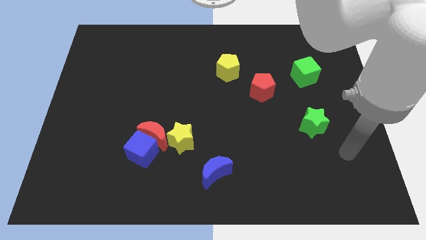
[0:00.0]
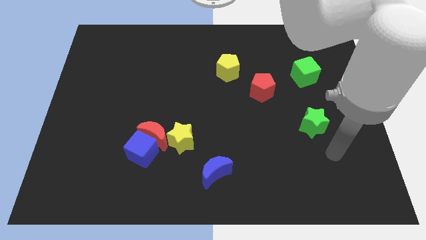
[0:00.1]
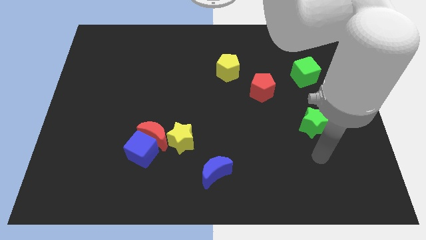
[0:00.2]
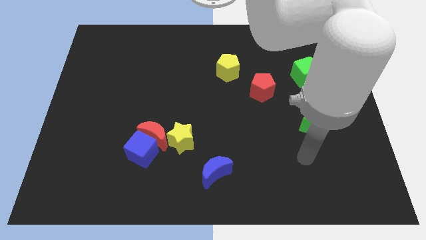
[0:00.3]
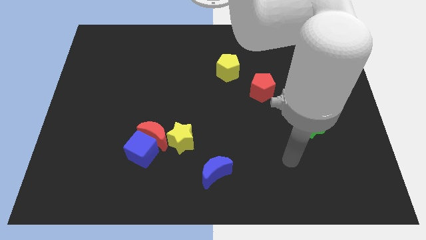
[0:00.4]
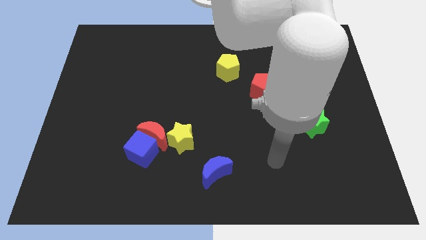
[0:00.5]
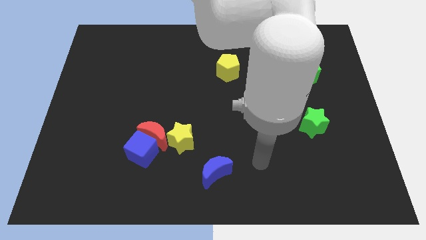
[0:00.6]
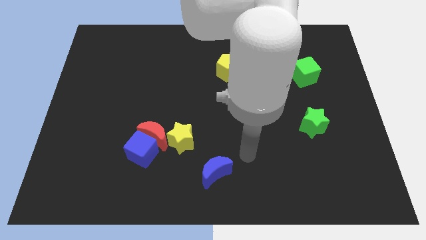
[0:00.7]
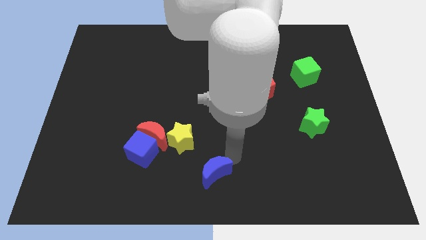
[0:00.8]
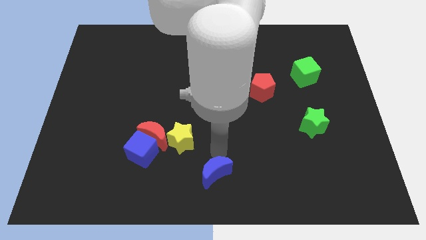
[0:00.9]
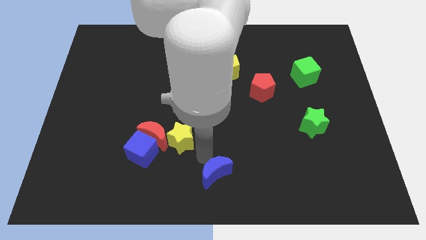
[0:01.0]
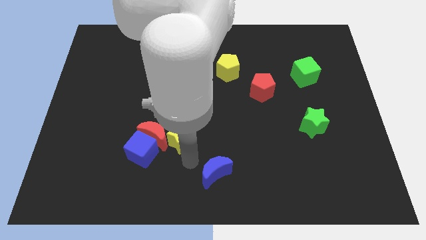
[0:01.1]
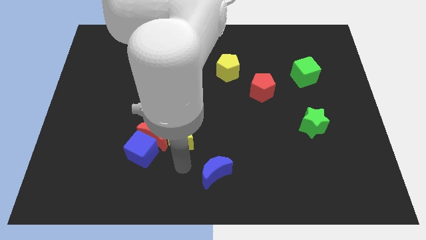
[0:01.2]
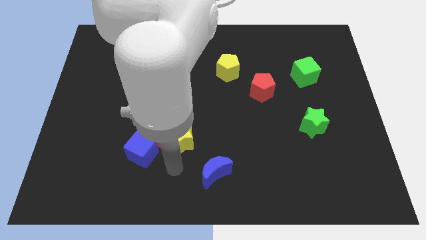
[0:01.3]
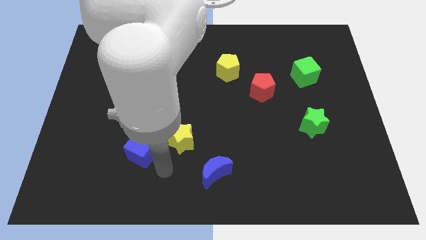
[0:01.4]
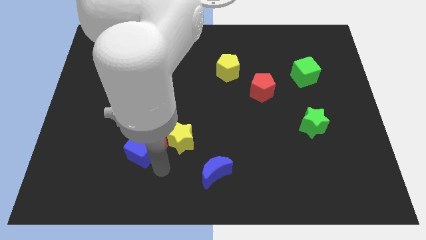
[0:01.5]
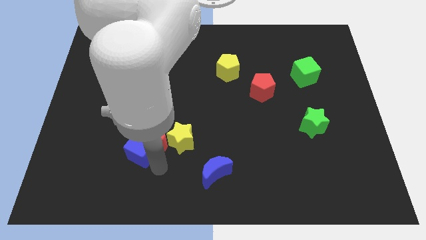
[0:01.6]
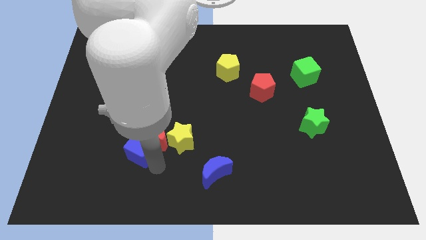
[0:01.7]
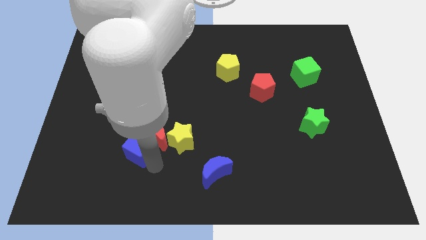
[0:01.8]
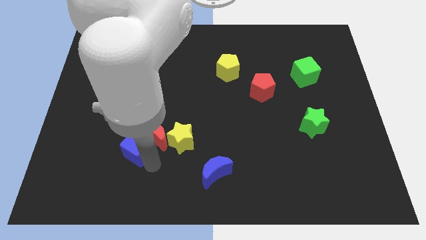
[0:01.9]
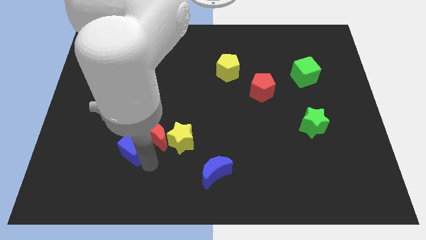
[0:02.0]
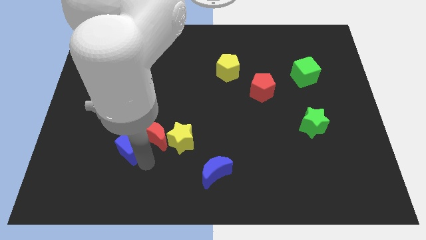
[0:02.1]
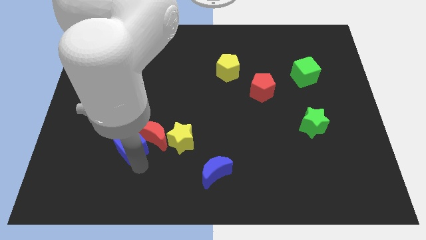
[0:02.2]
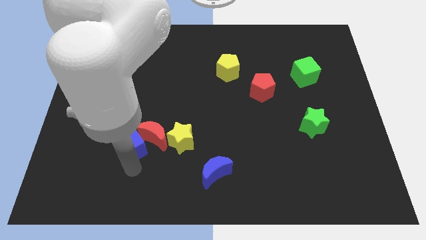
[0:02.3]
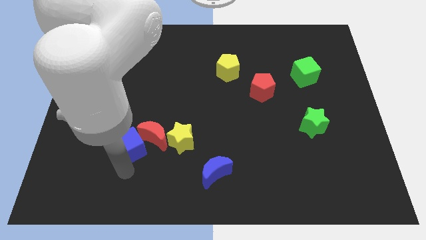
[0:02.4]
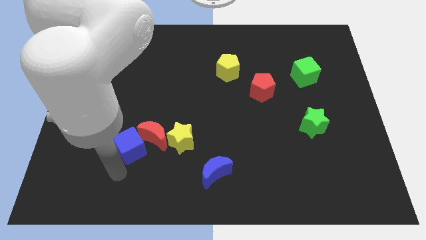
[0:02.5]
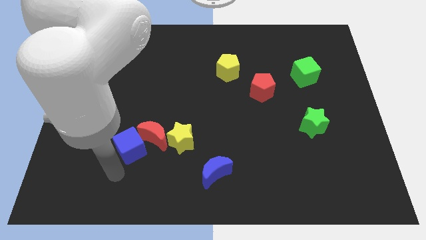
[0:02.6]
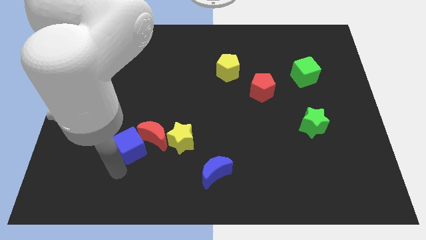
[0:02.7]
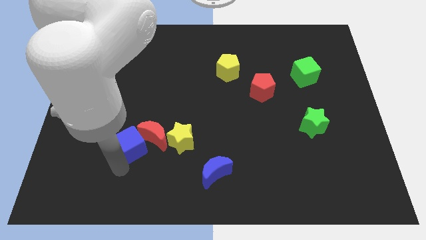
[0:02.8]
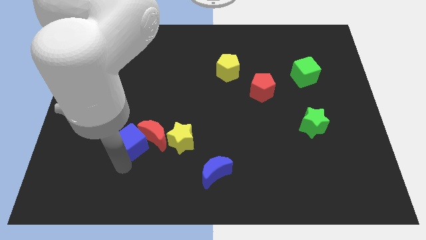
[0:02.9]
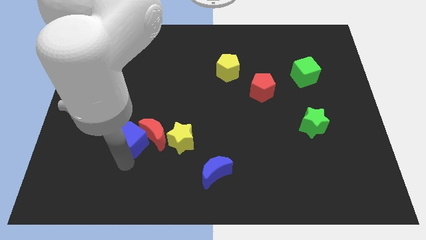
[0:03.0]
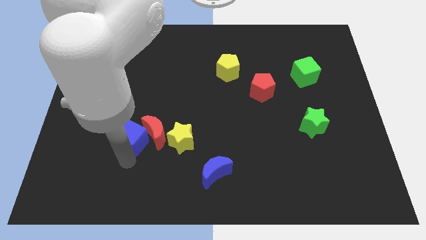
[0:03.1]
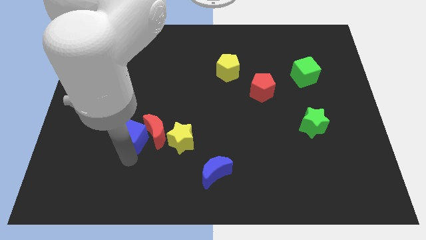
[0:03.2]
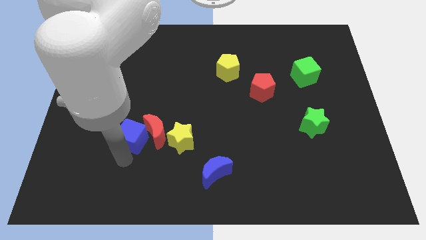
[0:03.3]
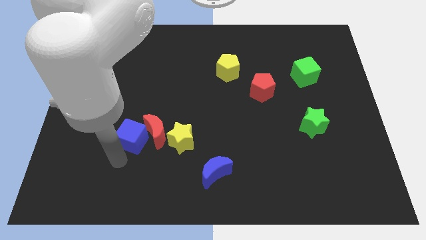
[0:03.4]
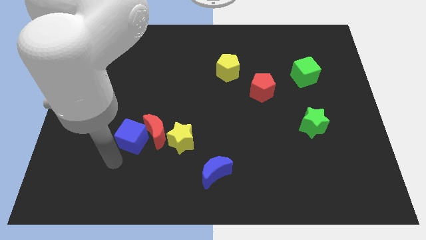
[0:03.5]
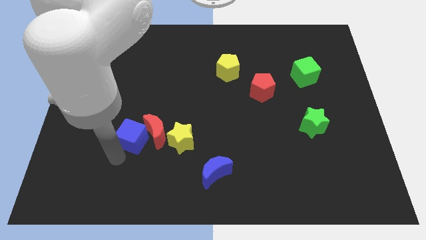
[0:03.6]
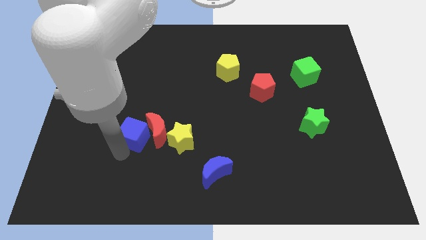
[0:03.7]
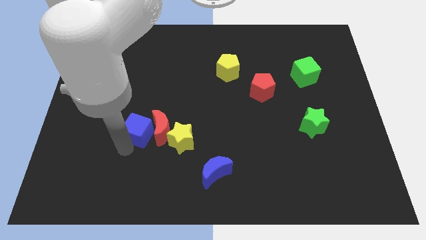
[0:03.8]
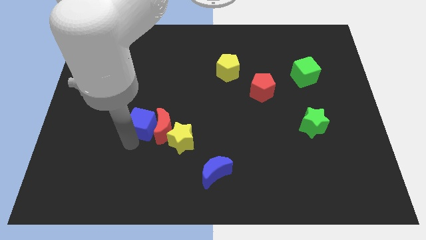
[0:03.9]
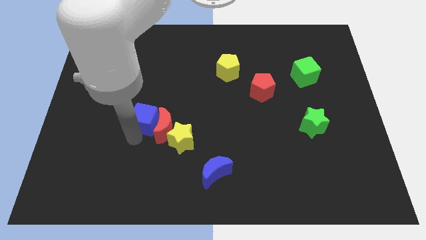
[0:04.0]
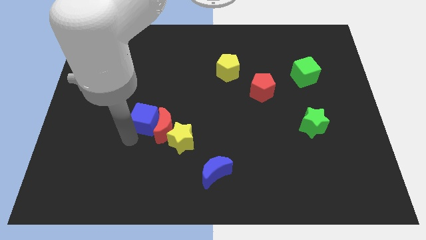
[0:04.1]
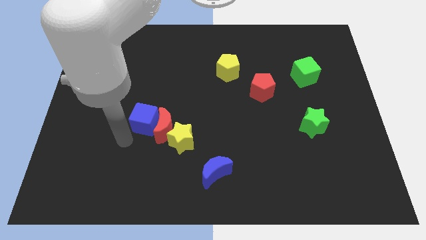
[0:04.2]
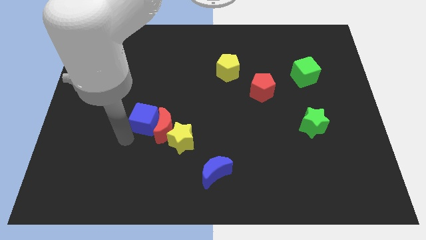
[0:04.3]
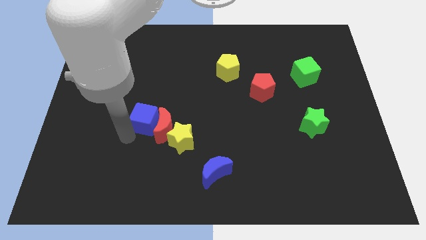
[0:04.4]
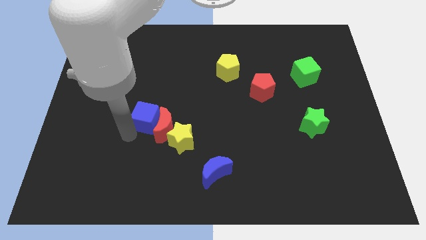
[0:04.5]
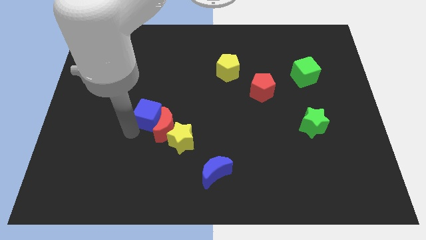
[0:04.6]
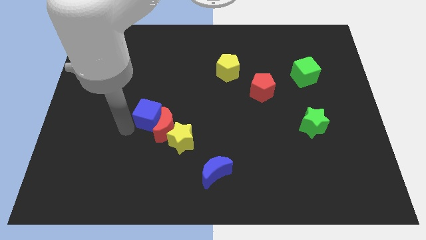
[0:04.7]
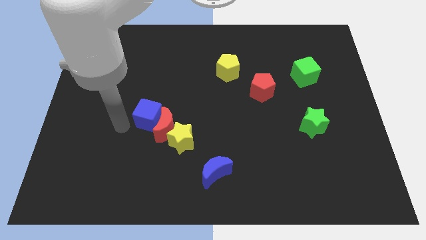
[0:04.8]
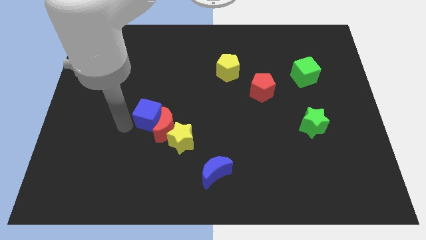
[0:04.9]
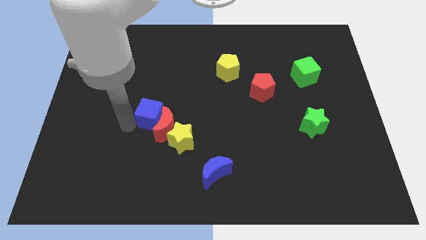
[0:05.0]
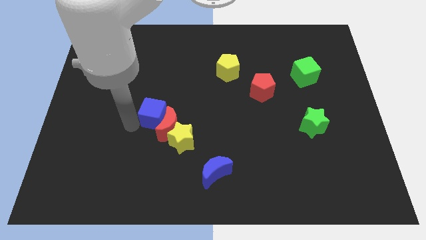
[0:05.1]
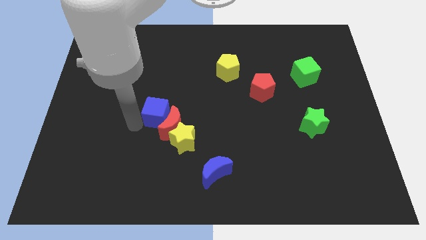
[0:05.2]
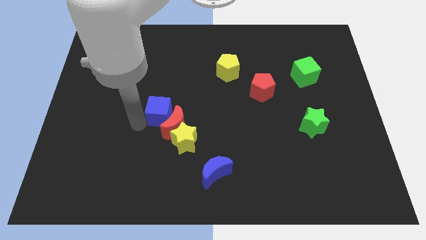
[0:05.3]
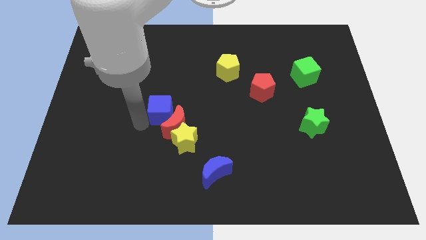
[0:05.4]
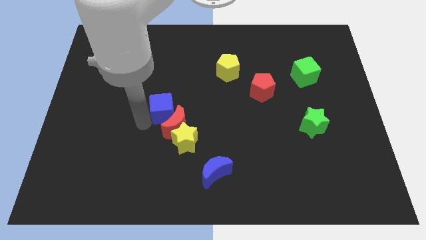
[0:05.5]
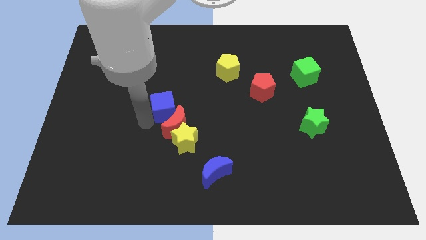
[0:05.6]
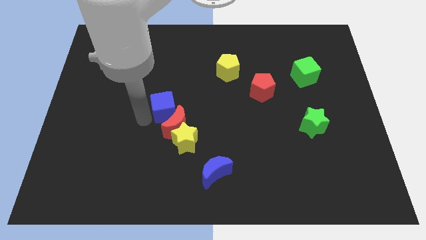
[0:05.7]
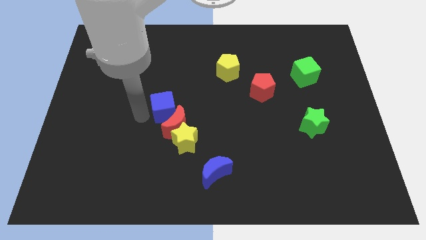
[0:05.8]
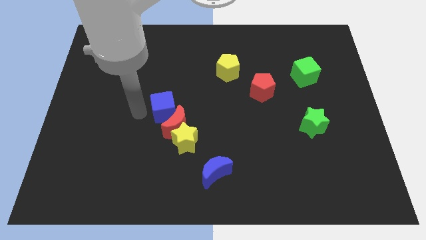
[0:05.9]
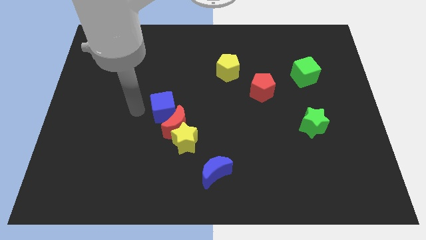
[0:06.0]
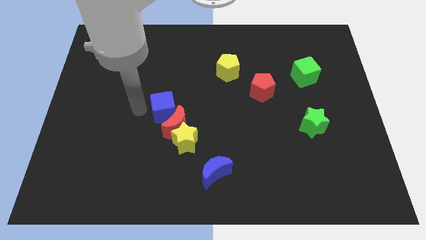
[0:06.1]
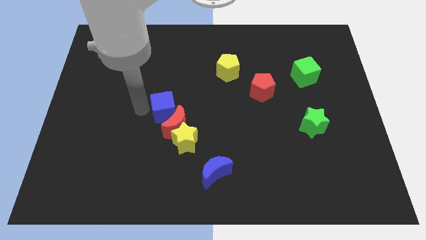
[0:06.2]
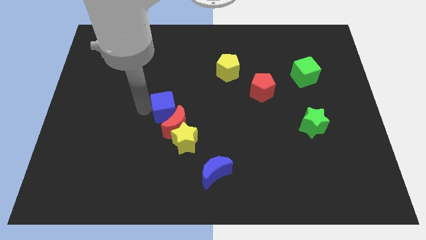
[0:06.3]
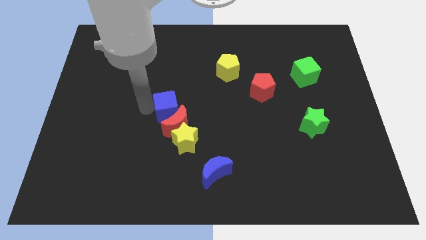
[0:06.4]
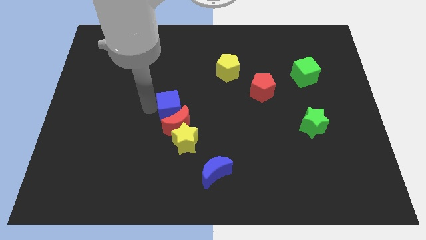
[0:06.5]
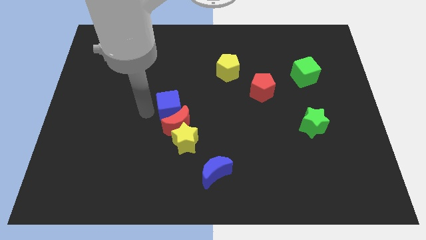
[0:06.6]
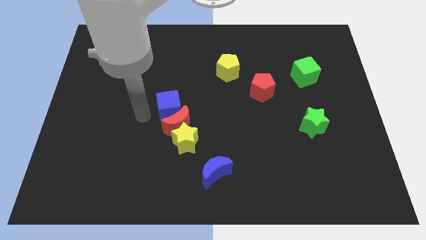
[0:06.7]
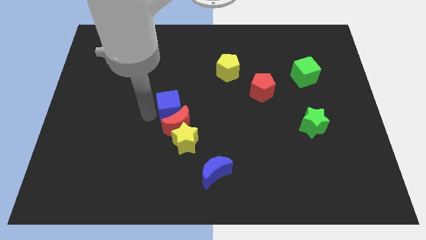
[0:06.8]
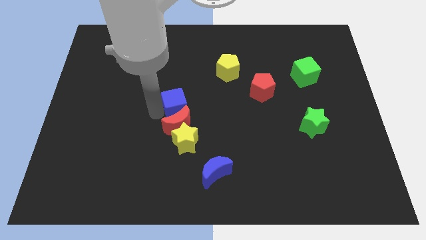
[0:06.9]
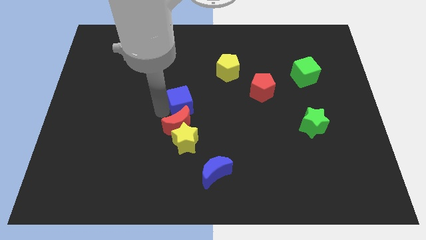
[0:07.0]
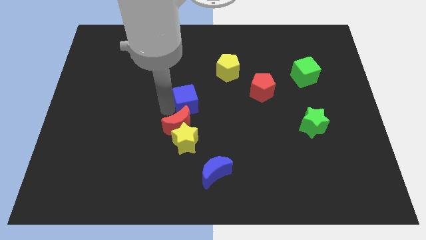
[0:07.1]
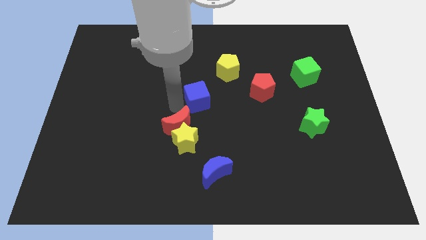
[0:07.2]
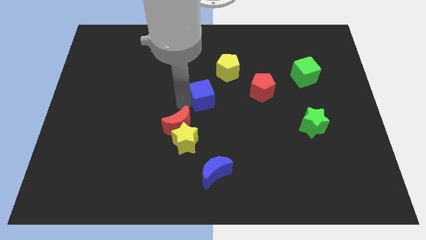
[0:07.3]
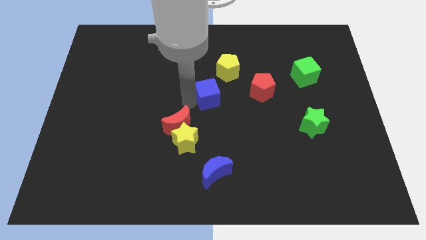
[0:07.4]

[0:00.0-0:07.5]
slide the blue cube upwards and right diagonally

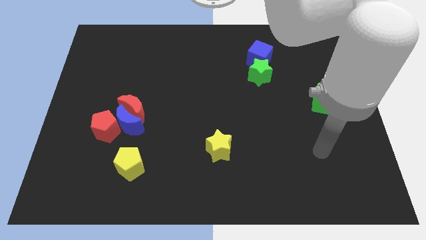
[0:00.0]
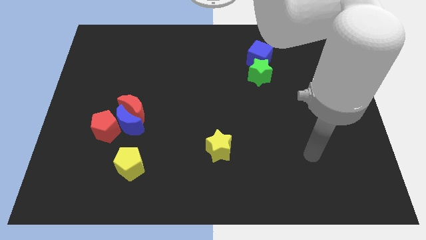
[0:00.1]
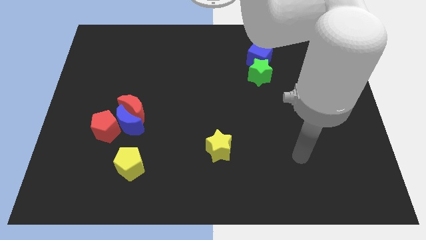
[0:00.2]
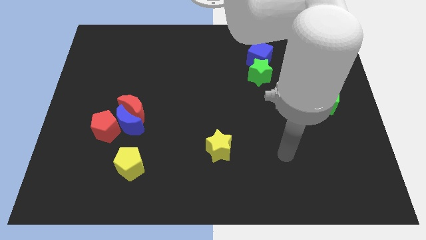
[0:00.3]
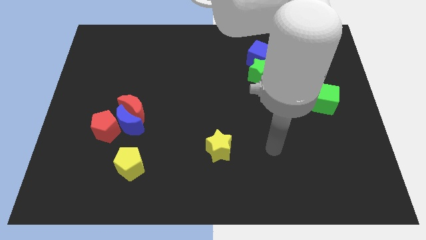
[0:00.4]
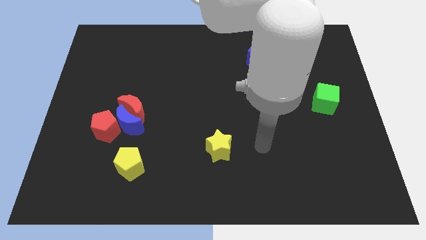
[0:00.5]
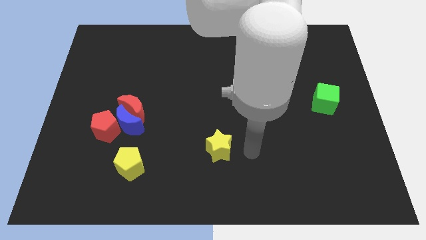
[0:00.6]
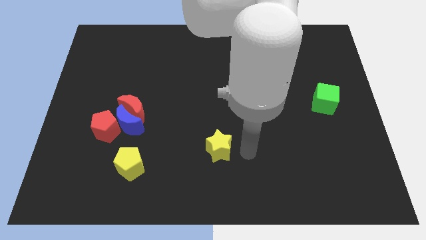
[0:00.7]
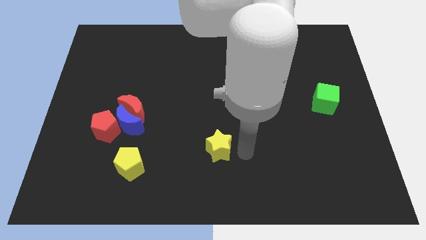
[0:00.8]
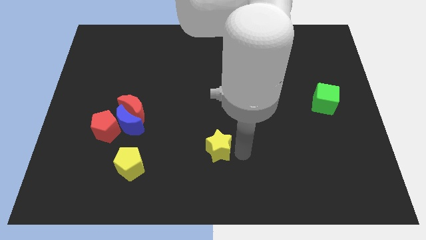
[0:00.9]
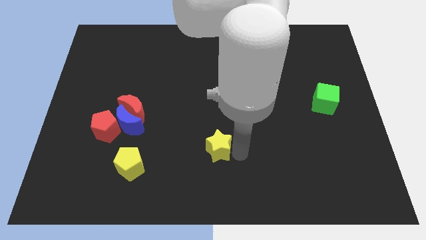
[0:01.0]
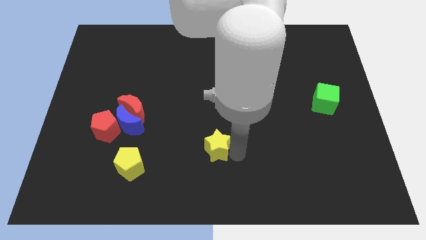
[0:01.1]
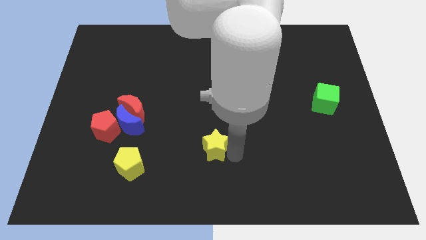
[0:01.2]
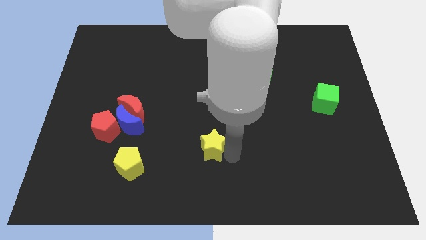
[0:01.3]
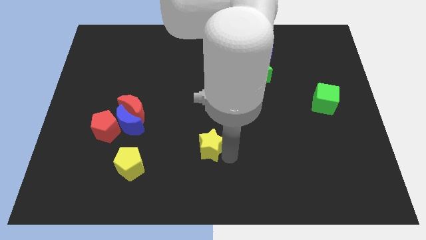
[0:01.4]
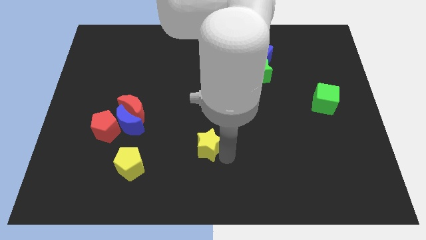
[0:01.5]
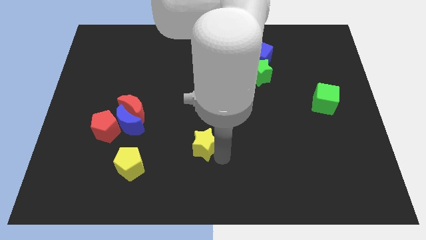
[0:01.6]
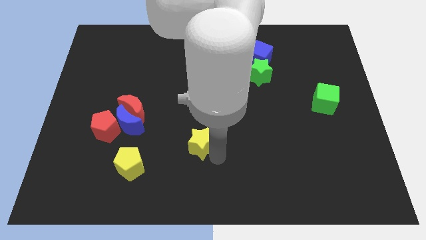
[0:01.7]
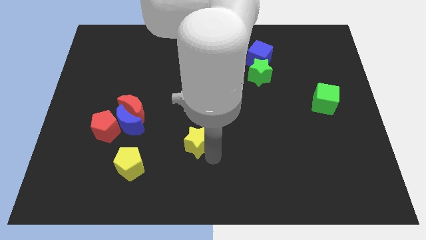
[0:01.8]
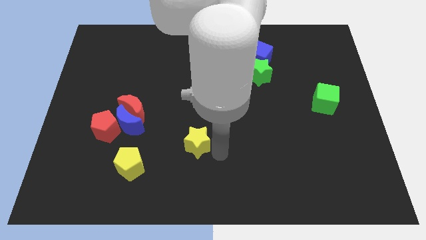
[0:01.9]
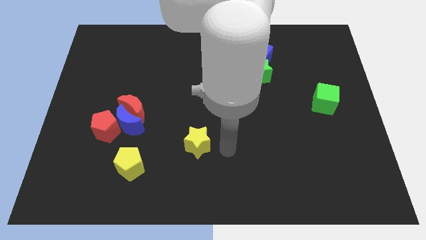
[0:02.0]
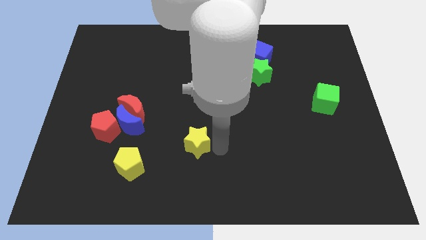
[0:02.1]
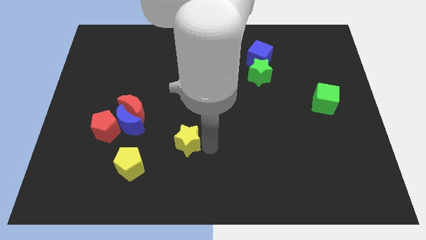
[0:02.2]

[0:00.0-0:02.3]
move the yellow star somewhat left
